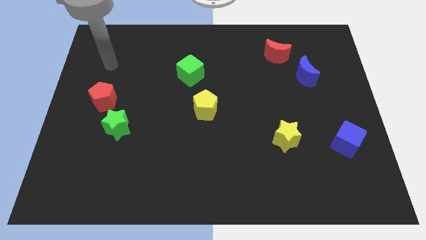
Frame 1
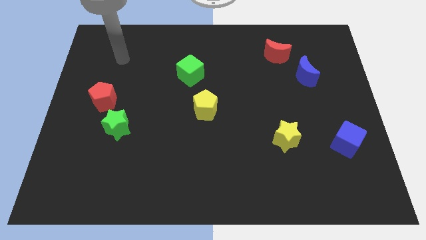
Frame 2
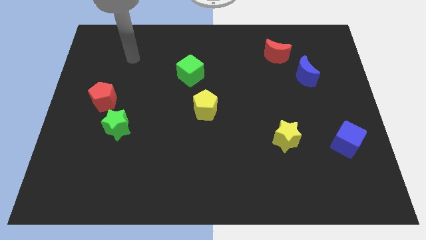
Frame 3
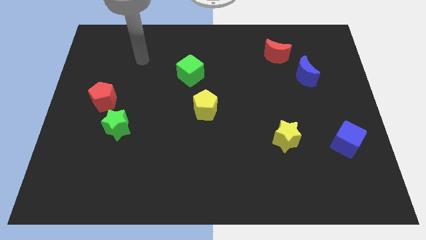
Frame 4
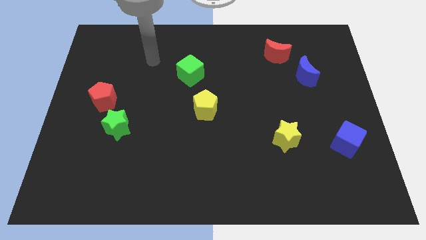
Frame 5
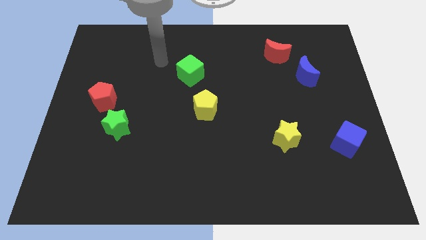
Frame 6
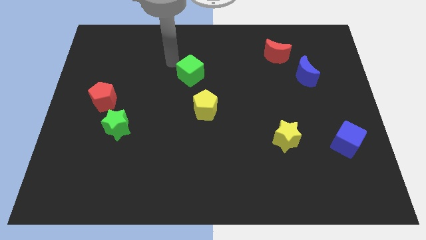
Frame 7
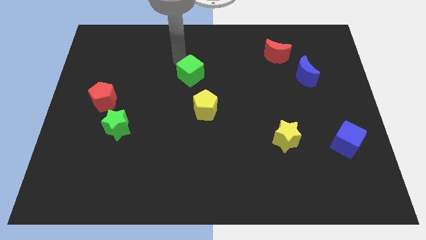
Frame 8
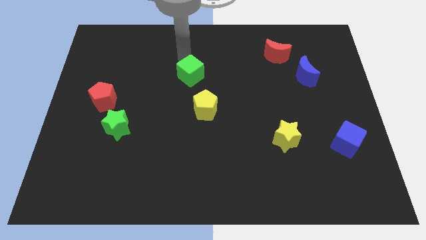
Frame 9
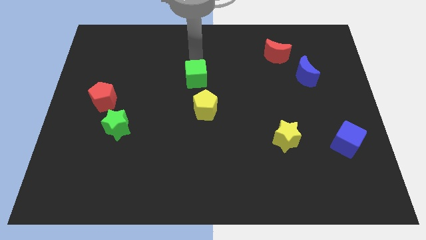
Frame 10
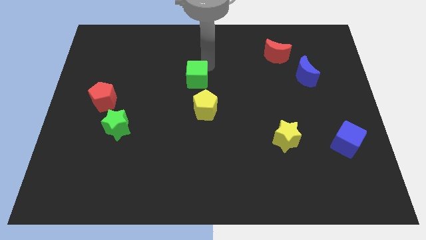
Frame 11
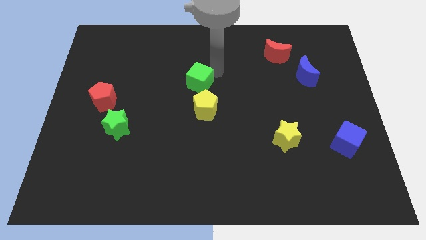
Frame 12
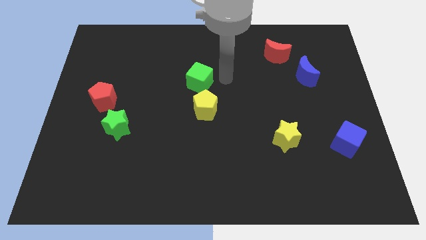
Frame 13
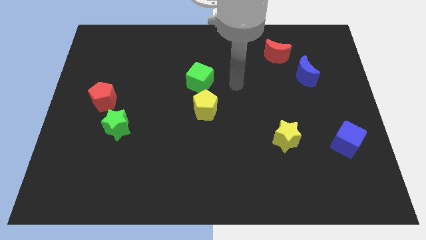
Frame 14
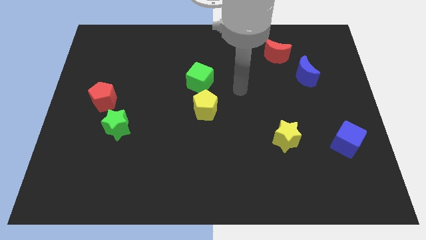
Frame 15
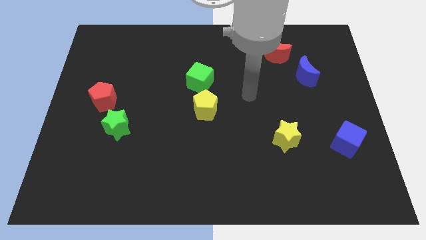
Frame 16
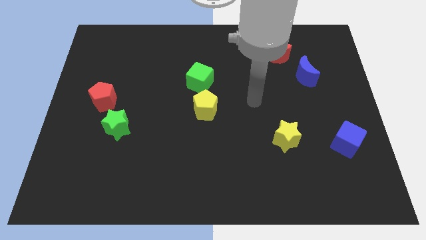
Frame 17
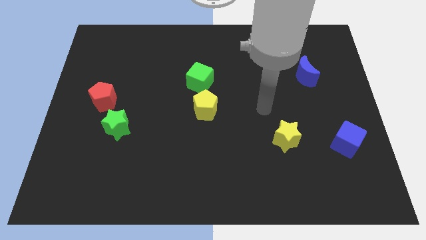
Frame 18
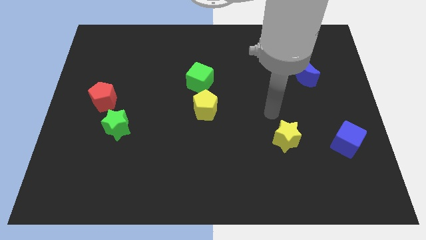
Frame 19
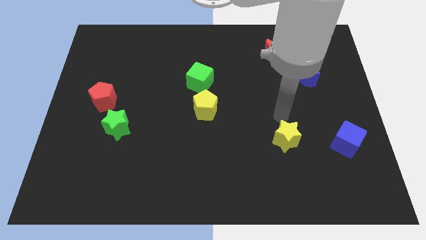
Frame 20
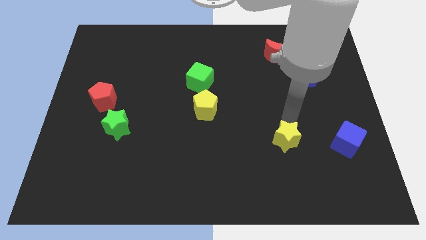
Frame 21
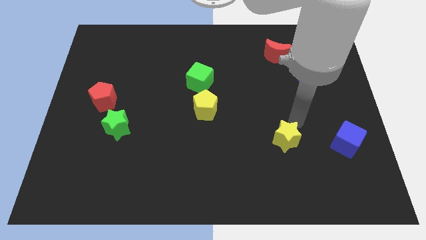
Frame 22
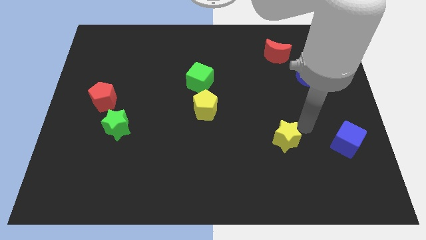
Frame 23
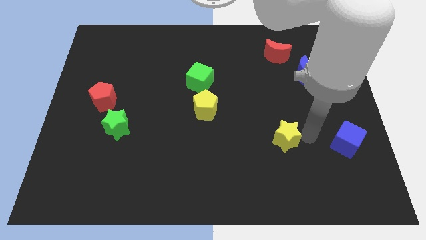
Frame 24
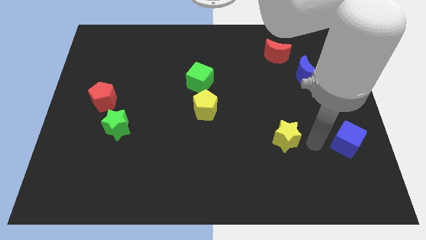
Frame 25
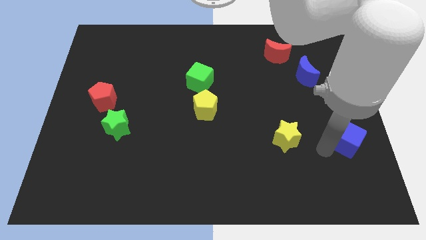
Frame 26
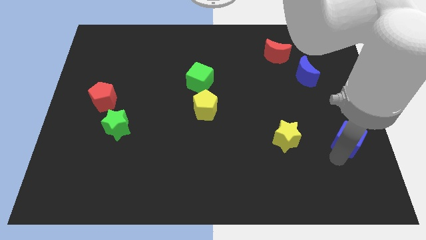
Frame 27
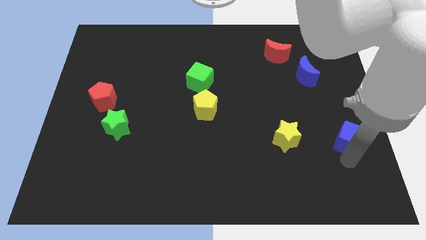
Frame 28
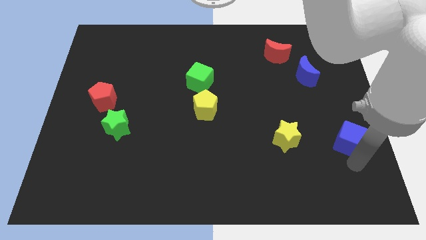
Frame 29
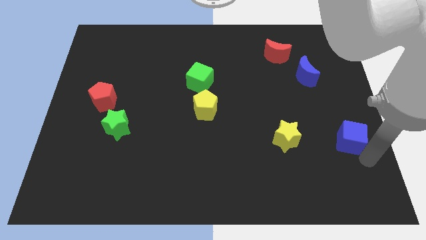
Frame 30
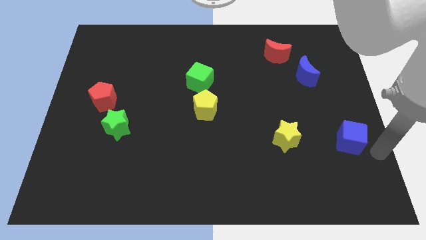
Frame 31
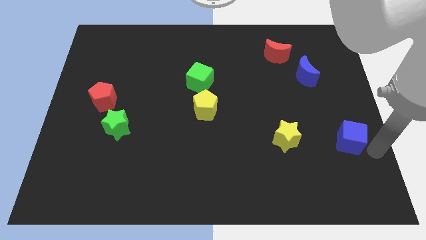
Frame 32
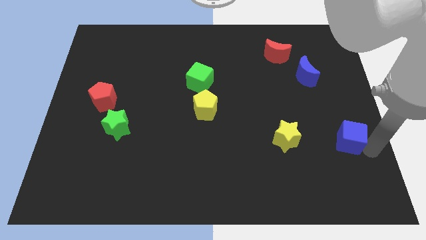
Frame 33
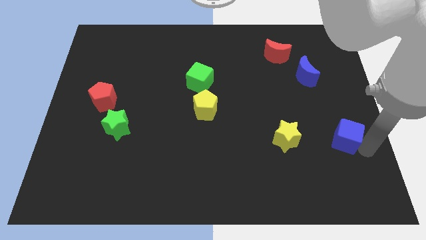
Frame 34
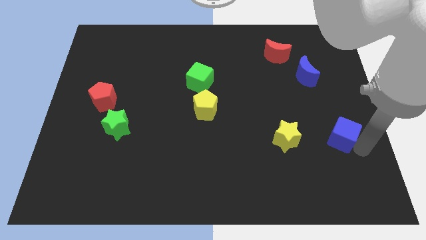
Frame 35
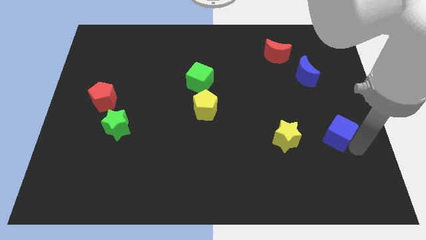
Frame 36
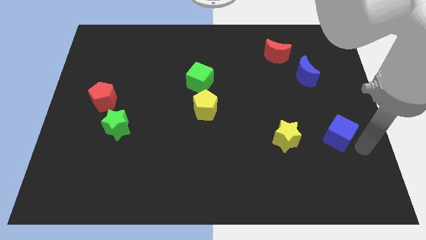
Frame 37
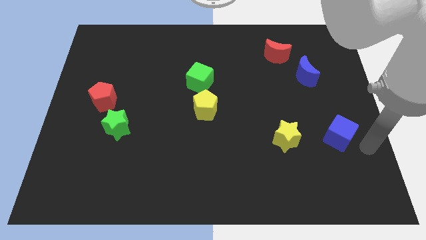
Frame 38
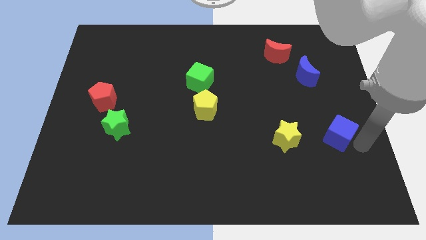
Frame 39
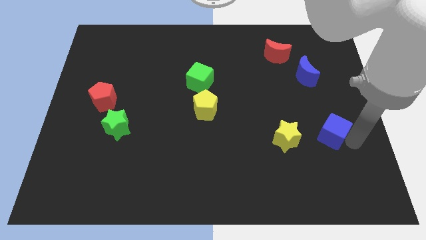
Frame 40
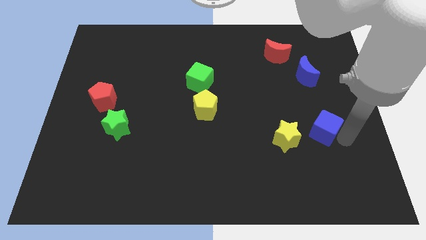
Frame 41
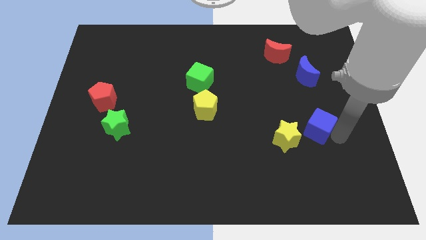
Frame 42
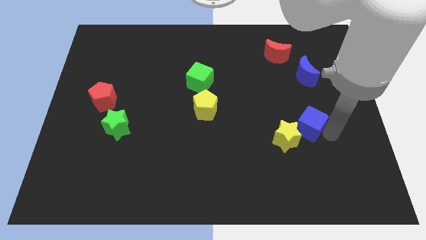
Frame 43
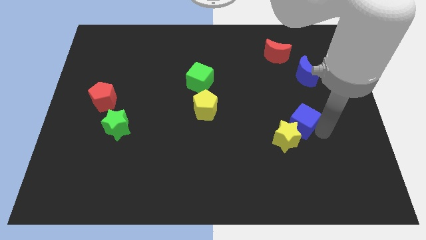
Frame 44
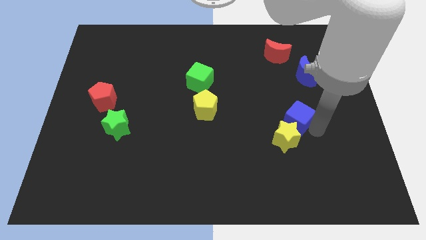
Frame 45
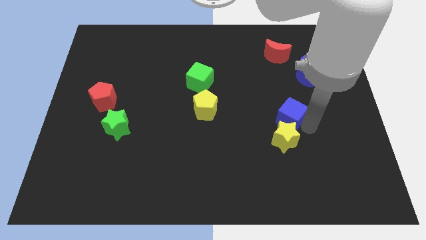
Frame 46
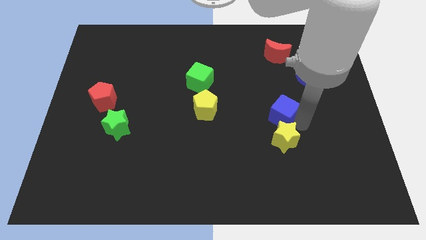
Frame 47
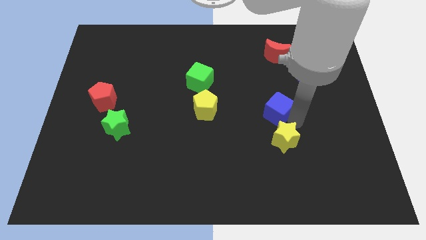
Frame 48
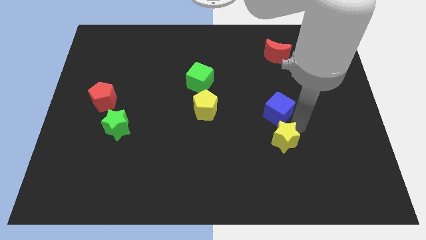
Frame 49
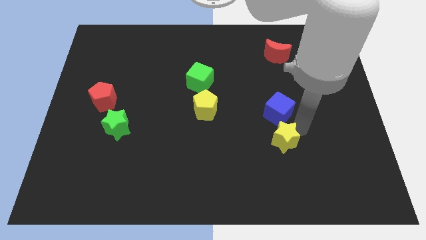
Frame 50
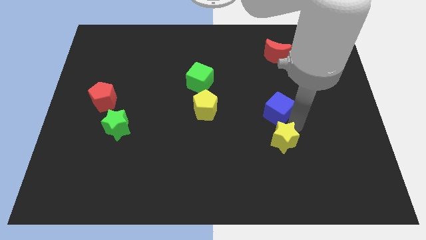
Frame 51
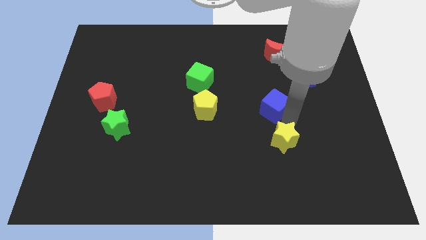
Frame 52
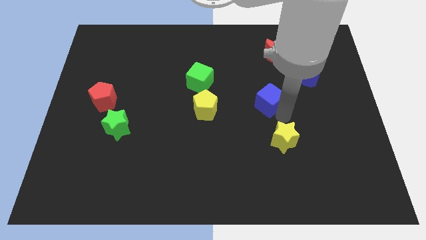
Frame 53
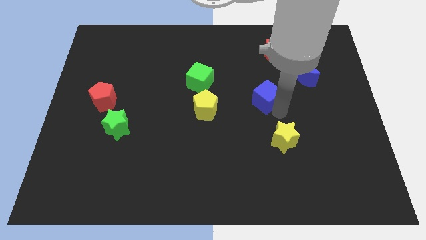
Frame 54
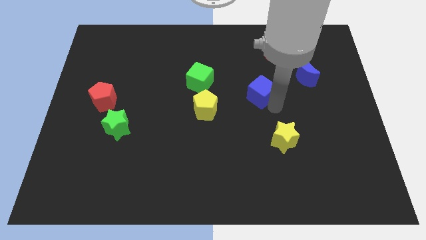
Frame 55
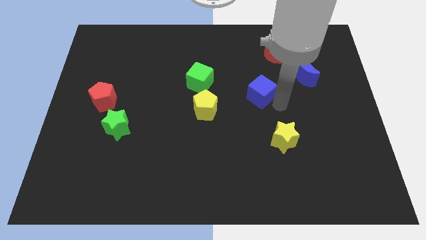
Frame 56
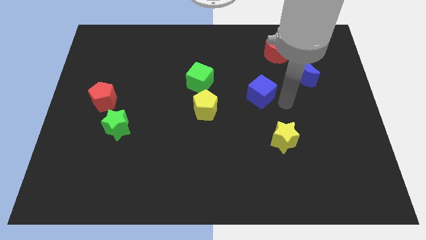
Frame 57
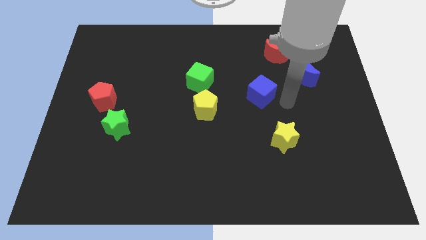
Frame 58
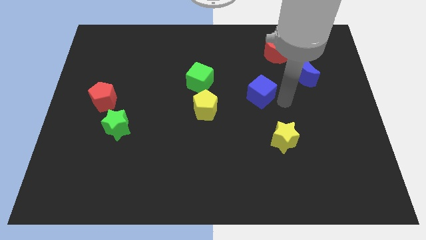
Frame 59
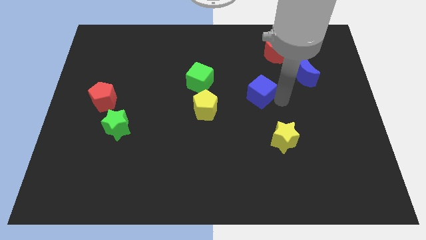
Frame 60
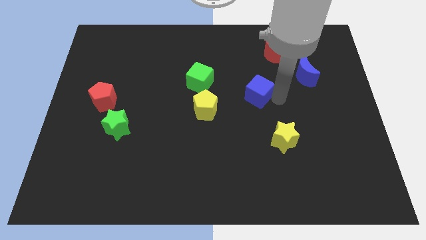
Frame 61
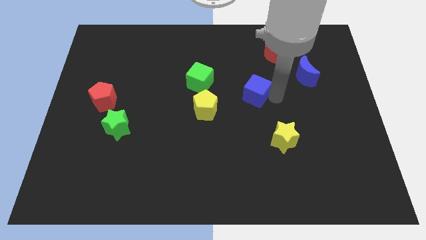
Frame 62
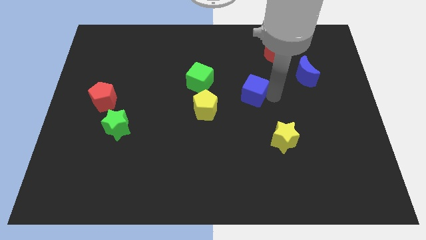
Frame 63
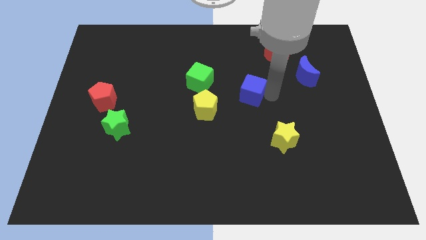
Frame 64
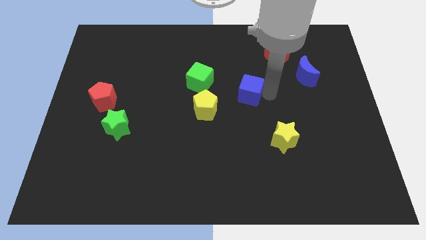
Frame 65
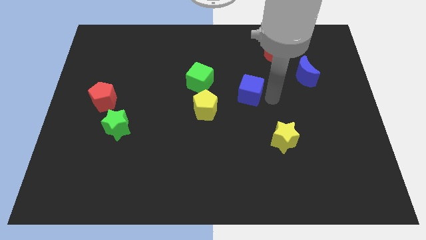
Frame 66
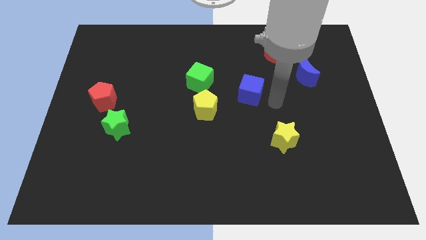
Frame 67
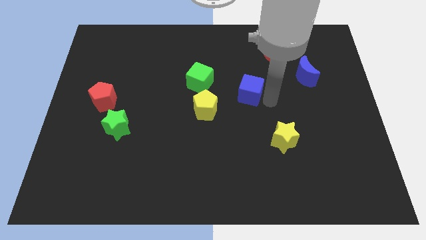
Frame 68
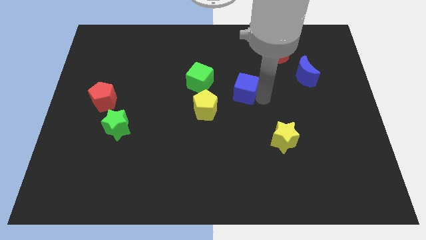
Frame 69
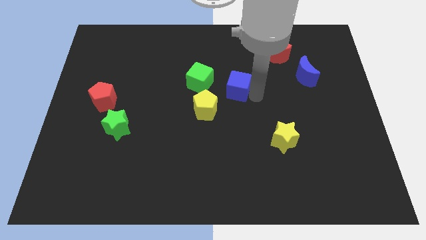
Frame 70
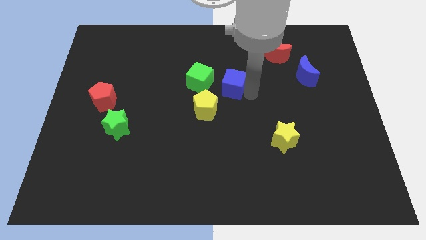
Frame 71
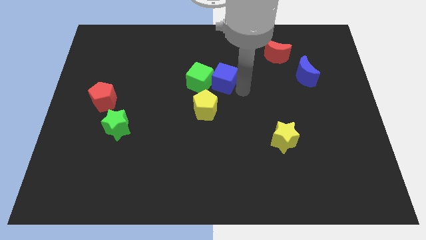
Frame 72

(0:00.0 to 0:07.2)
push the blue cube close to the green cube

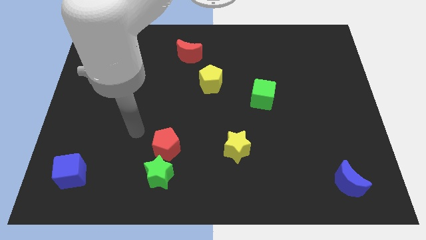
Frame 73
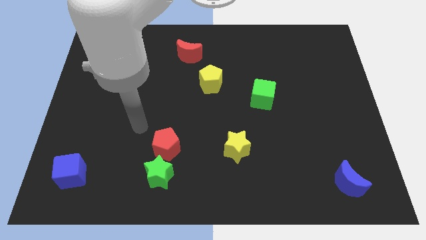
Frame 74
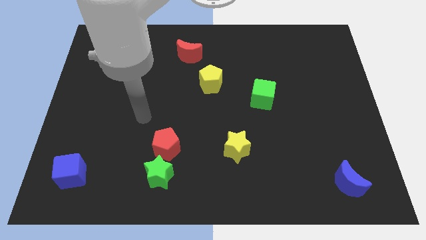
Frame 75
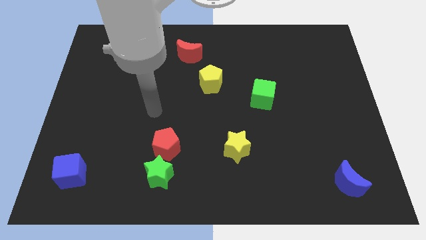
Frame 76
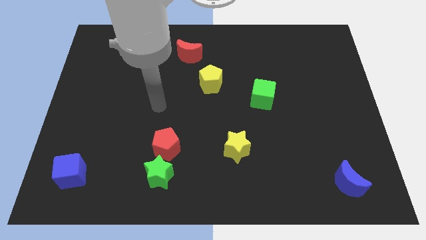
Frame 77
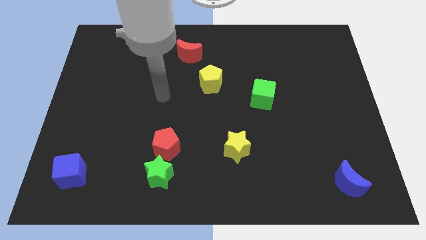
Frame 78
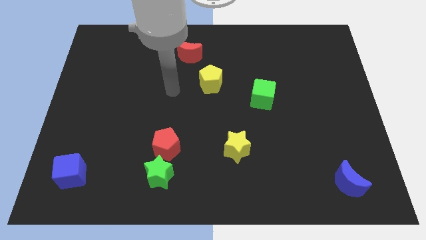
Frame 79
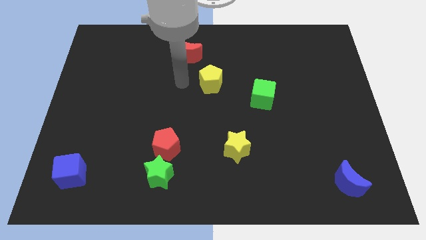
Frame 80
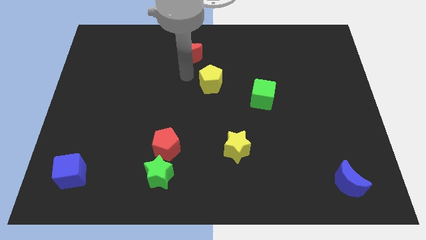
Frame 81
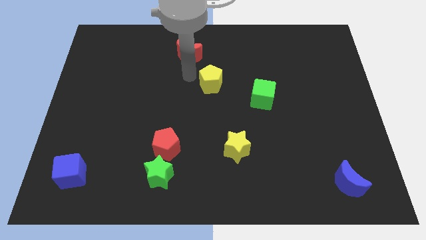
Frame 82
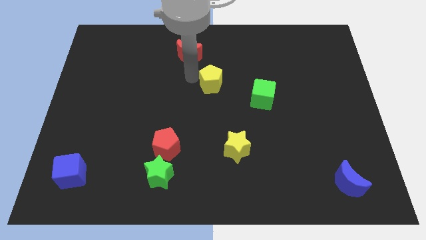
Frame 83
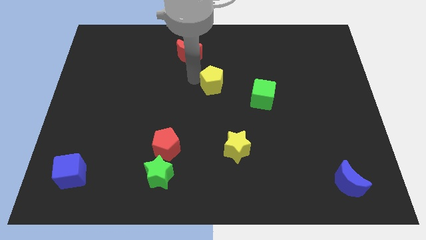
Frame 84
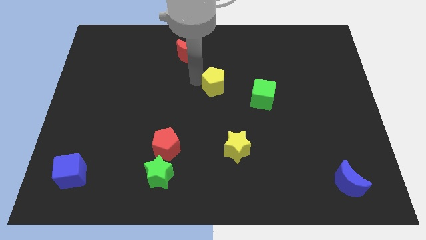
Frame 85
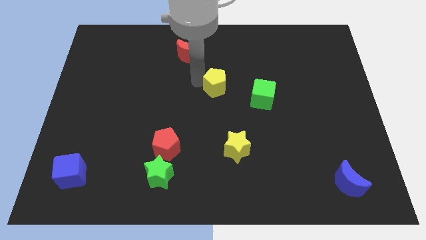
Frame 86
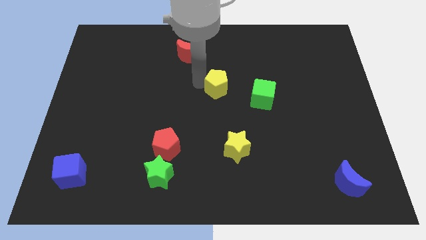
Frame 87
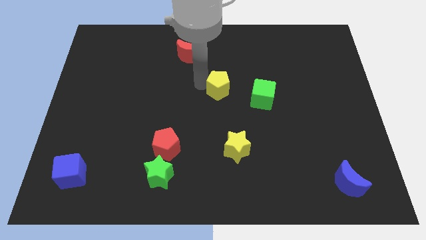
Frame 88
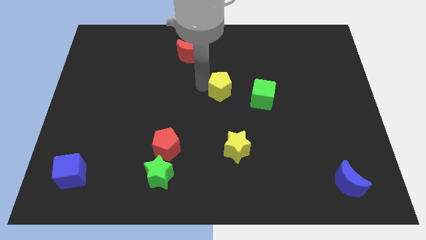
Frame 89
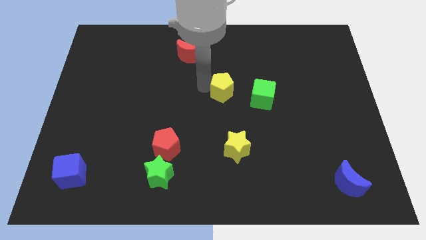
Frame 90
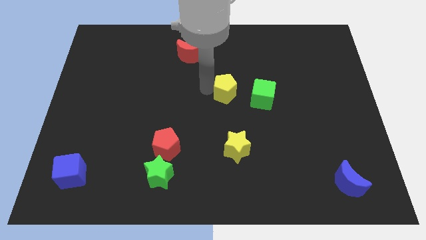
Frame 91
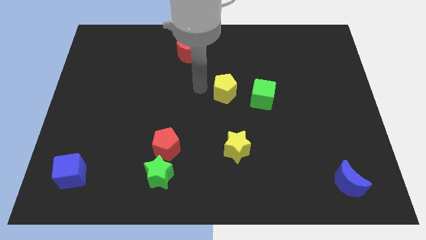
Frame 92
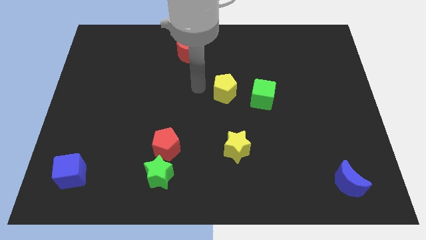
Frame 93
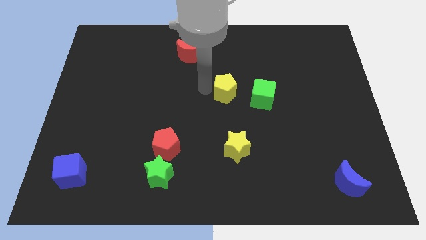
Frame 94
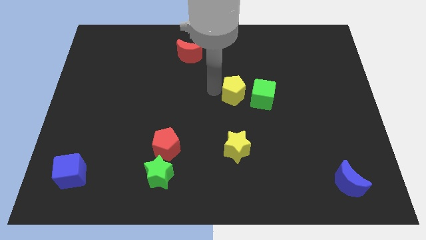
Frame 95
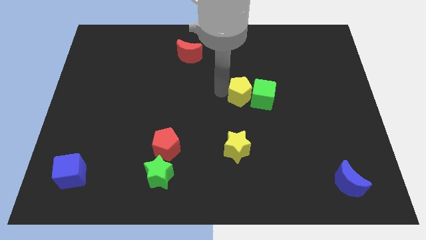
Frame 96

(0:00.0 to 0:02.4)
slide the yellow pentagon next to the green cube
